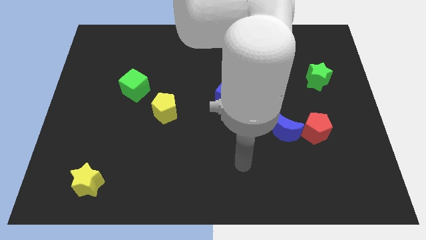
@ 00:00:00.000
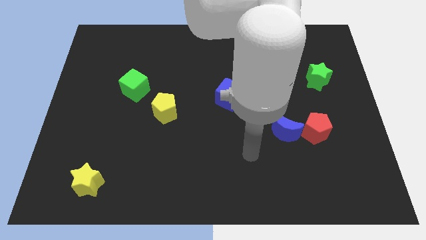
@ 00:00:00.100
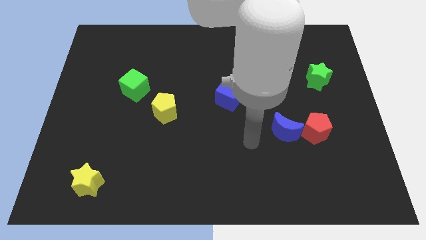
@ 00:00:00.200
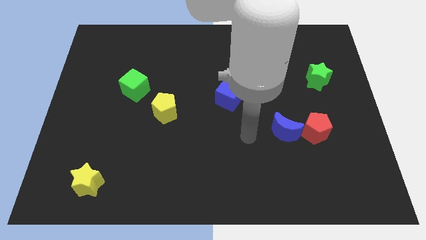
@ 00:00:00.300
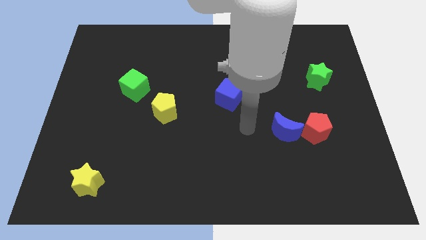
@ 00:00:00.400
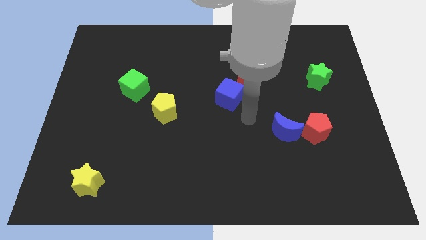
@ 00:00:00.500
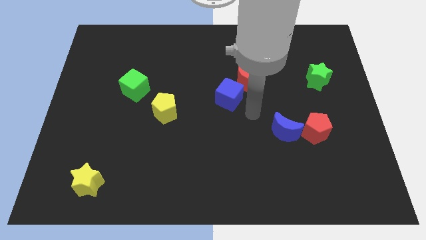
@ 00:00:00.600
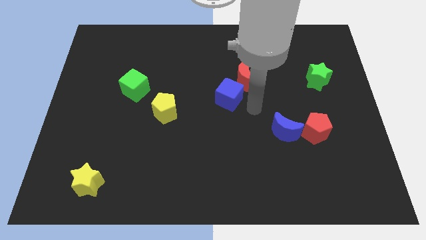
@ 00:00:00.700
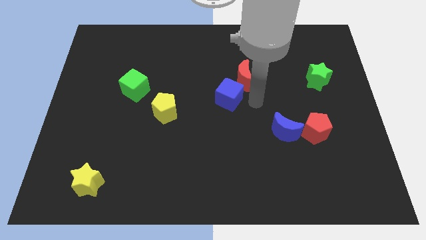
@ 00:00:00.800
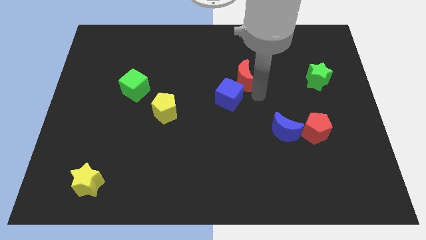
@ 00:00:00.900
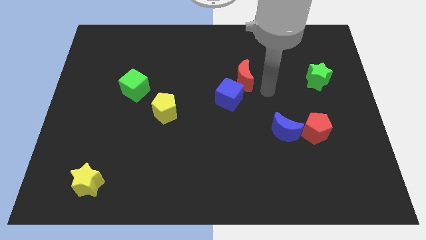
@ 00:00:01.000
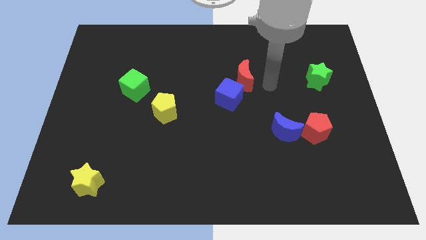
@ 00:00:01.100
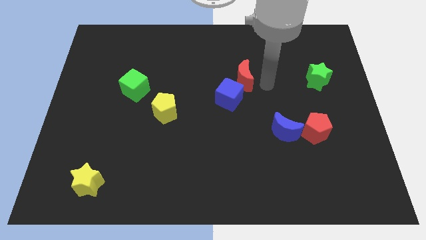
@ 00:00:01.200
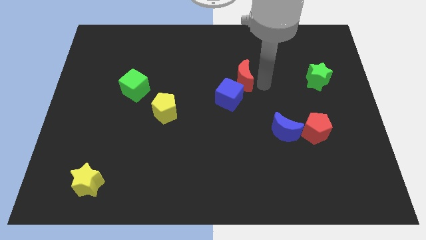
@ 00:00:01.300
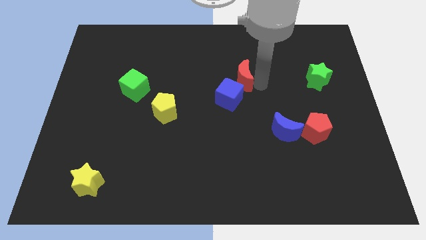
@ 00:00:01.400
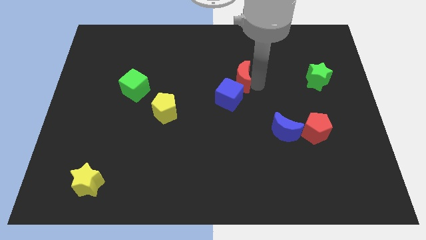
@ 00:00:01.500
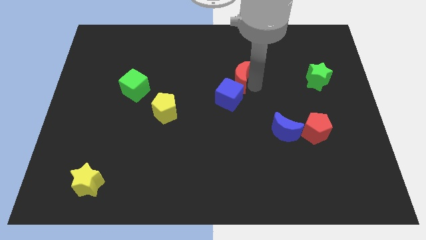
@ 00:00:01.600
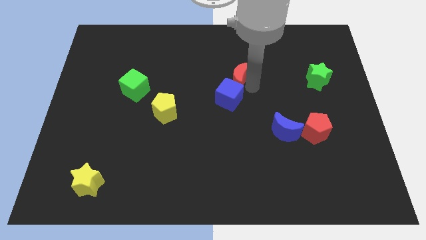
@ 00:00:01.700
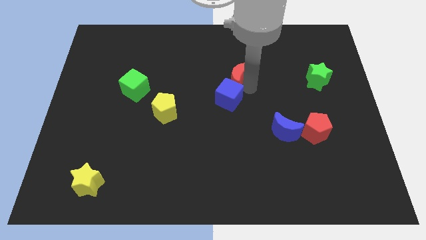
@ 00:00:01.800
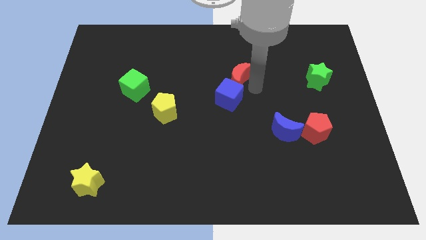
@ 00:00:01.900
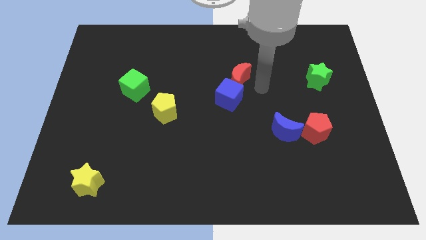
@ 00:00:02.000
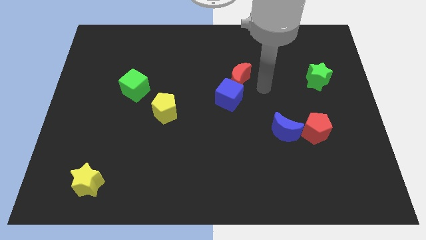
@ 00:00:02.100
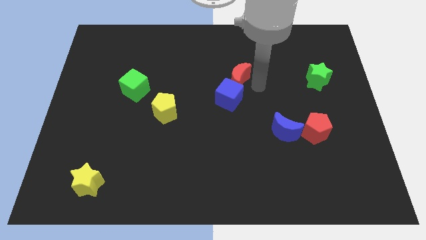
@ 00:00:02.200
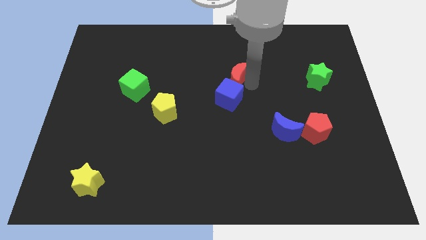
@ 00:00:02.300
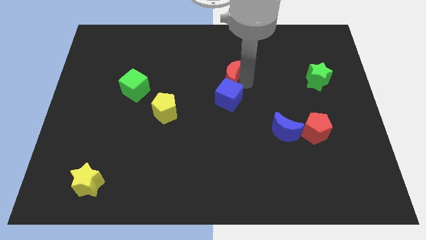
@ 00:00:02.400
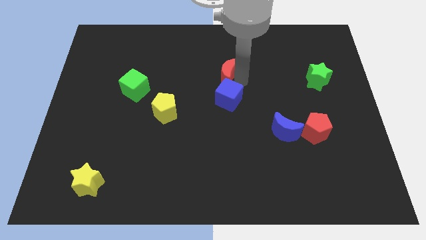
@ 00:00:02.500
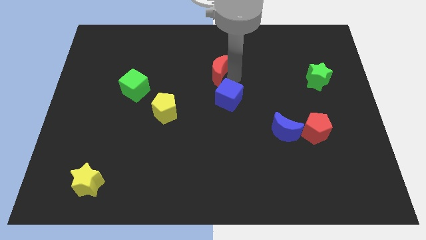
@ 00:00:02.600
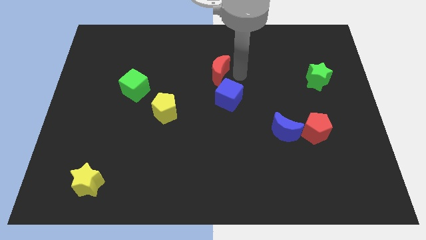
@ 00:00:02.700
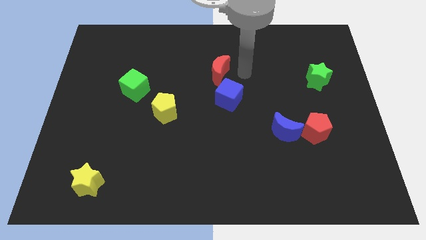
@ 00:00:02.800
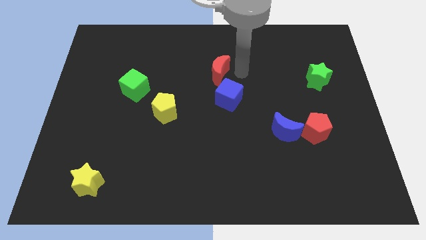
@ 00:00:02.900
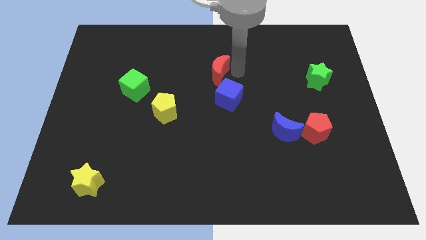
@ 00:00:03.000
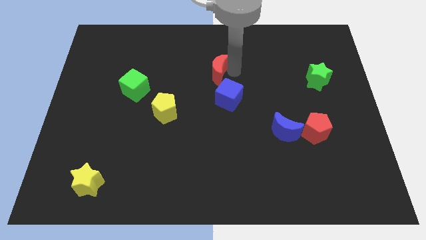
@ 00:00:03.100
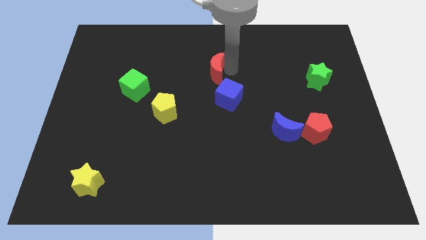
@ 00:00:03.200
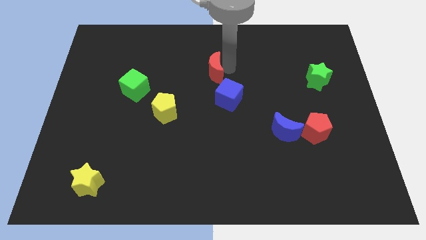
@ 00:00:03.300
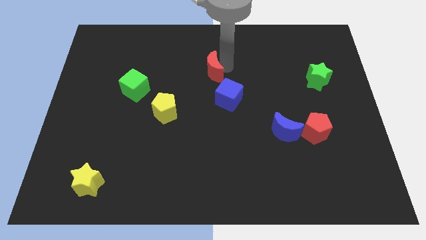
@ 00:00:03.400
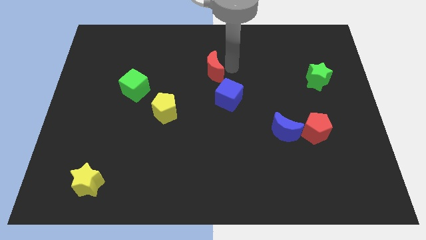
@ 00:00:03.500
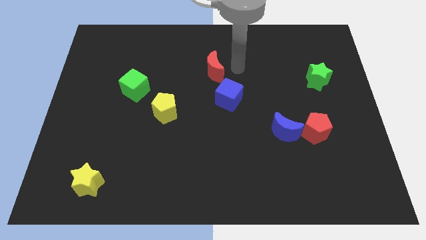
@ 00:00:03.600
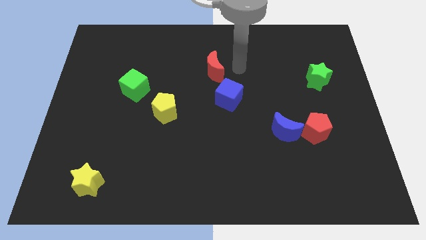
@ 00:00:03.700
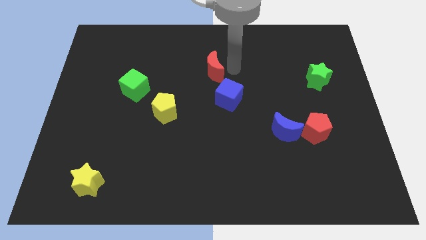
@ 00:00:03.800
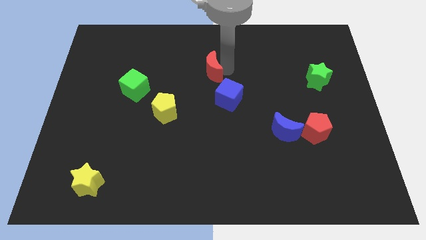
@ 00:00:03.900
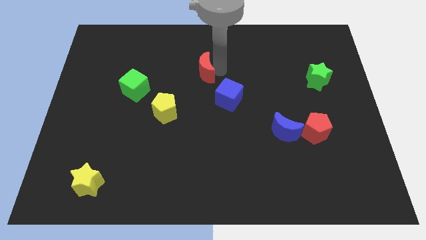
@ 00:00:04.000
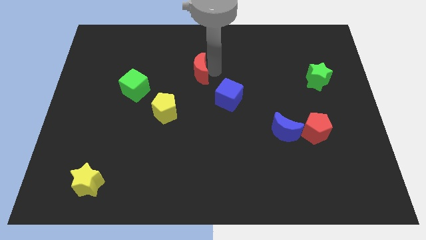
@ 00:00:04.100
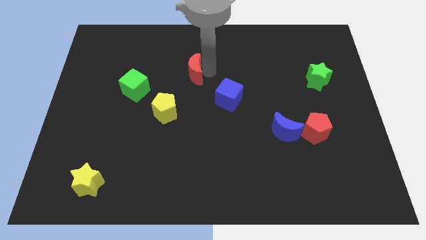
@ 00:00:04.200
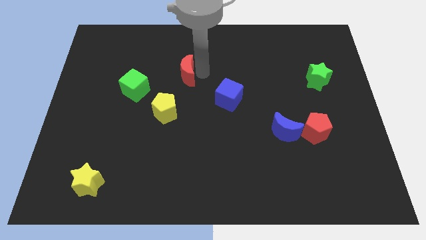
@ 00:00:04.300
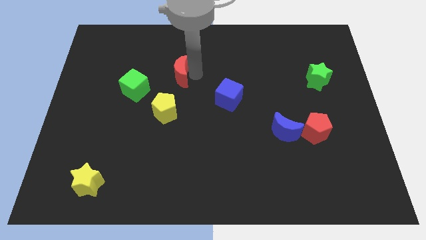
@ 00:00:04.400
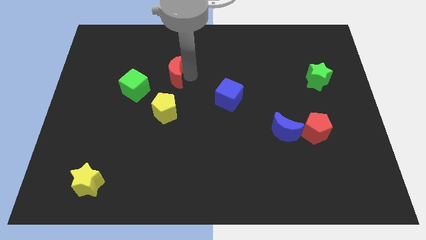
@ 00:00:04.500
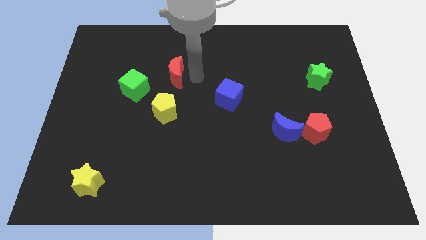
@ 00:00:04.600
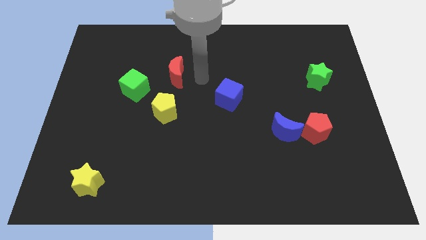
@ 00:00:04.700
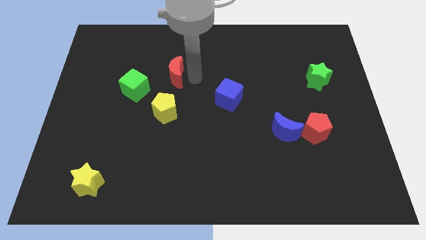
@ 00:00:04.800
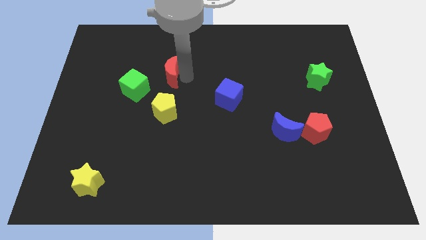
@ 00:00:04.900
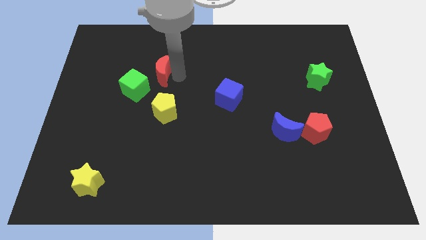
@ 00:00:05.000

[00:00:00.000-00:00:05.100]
push the red moon left

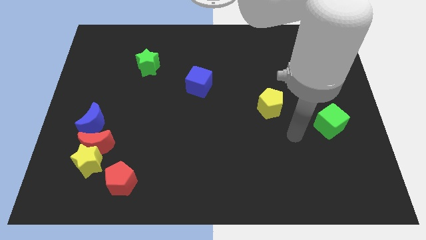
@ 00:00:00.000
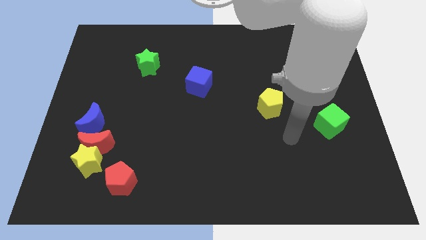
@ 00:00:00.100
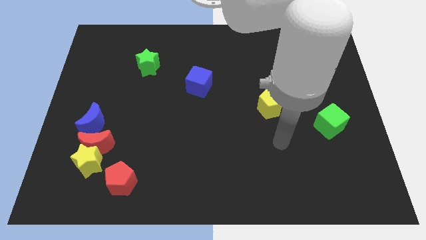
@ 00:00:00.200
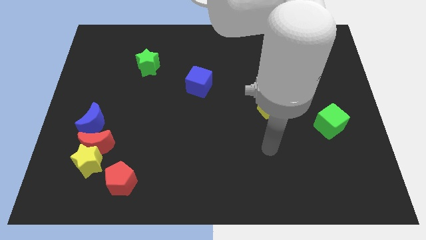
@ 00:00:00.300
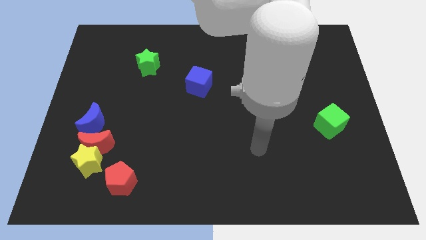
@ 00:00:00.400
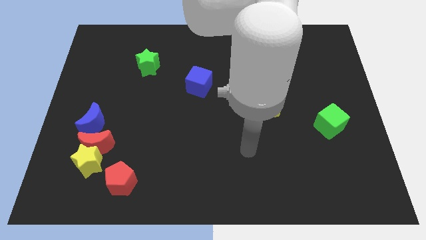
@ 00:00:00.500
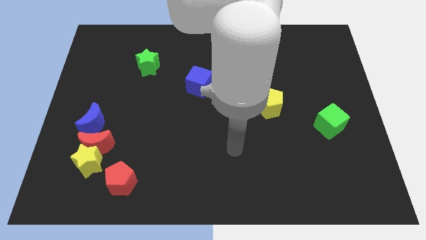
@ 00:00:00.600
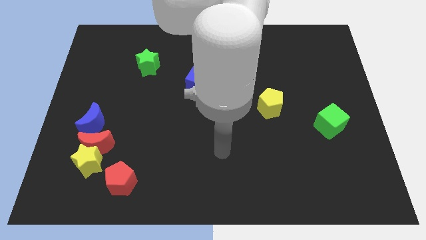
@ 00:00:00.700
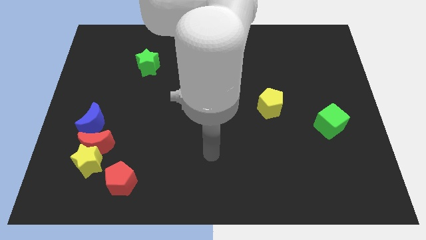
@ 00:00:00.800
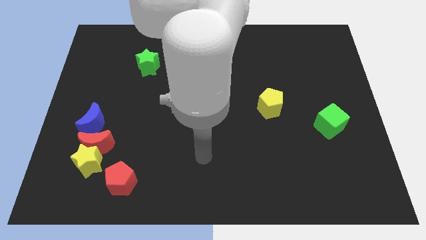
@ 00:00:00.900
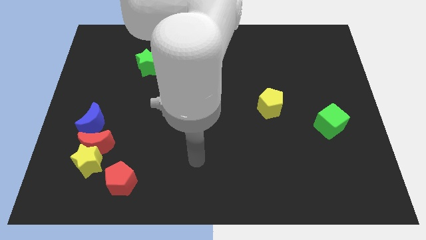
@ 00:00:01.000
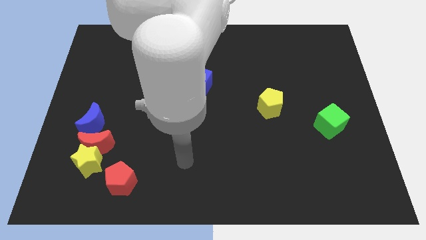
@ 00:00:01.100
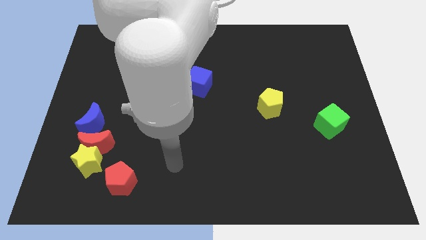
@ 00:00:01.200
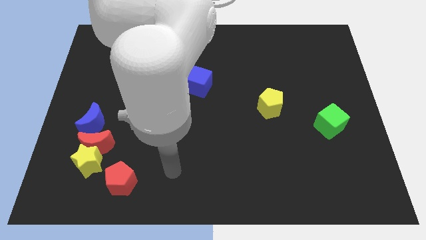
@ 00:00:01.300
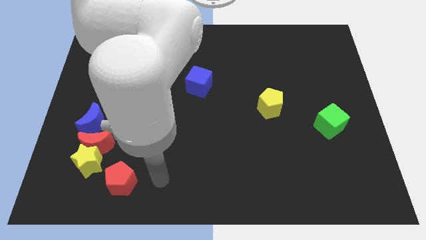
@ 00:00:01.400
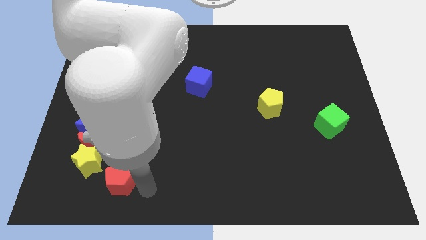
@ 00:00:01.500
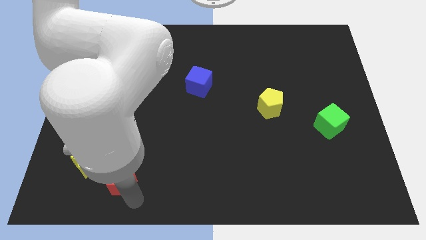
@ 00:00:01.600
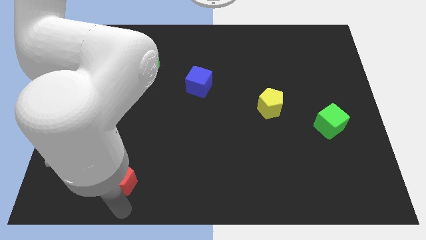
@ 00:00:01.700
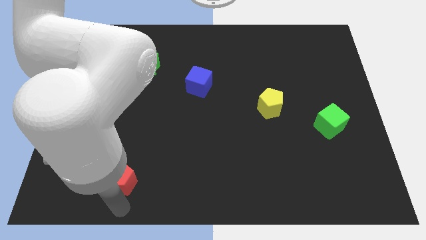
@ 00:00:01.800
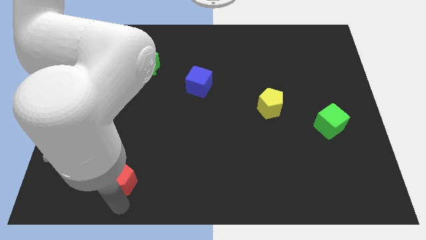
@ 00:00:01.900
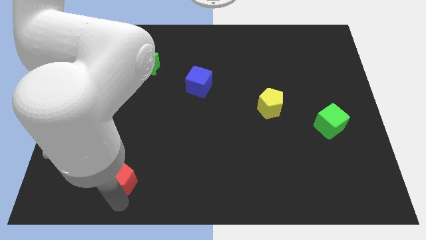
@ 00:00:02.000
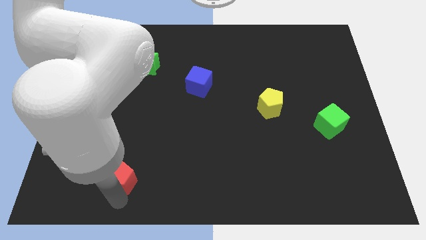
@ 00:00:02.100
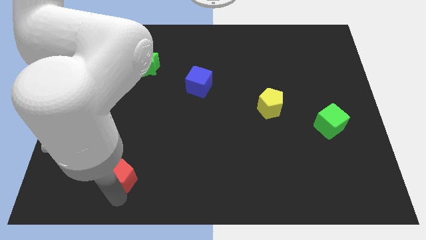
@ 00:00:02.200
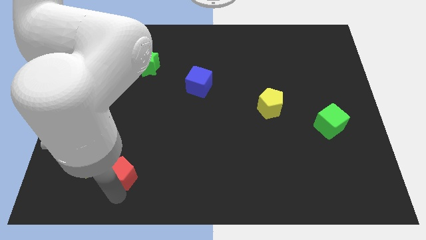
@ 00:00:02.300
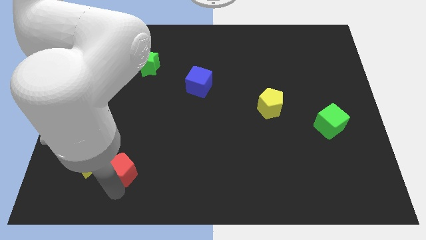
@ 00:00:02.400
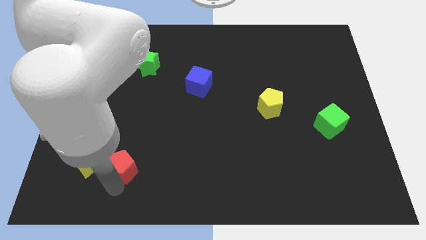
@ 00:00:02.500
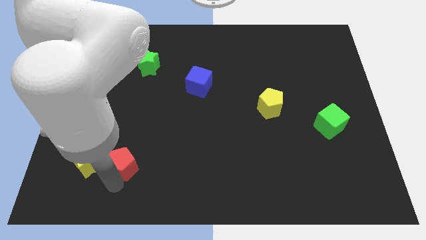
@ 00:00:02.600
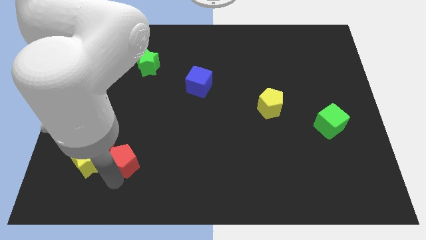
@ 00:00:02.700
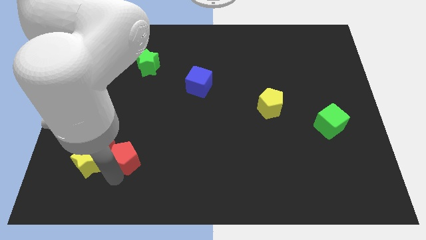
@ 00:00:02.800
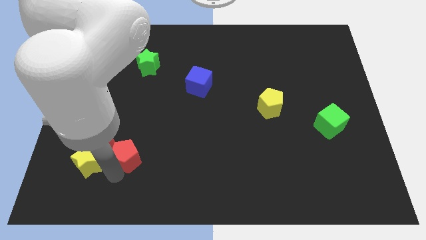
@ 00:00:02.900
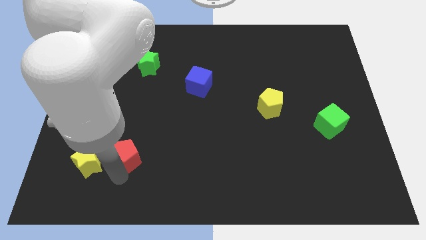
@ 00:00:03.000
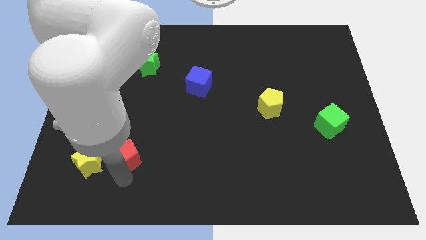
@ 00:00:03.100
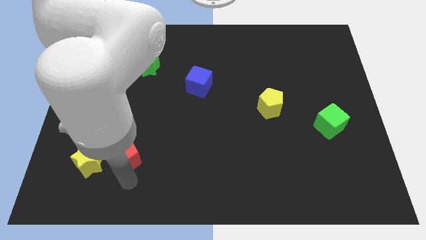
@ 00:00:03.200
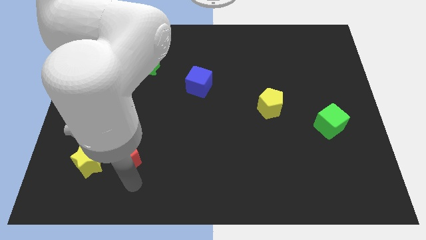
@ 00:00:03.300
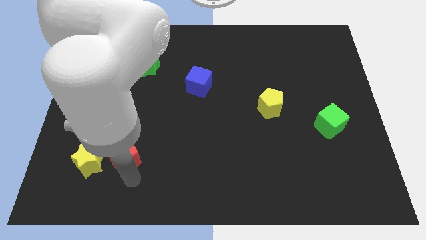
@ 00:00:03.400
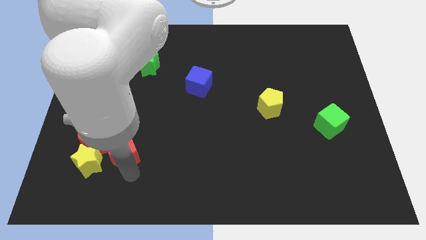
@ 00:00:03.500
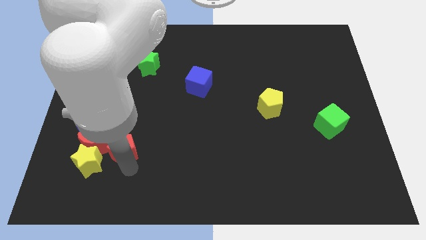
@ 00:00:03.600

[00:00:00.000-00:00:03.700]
push the red pentagon up a little bit
